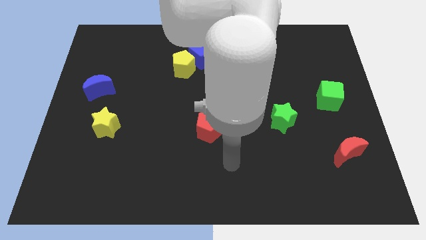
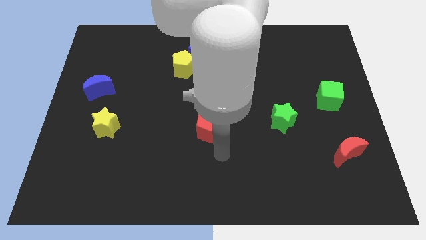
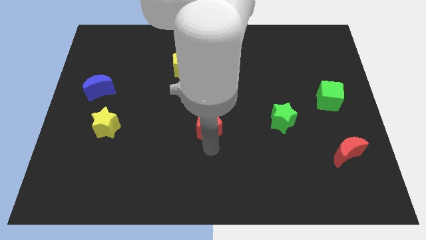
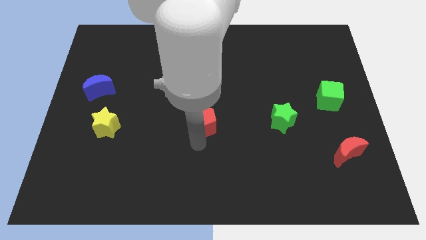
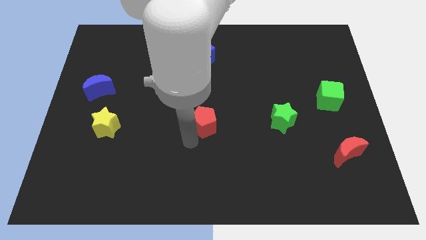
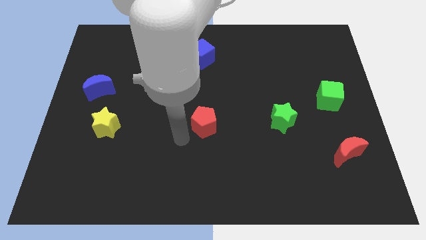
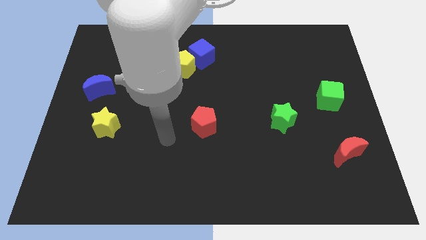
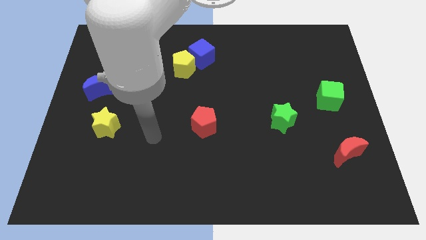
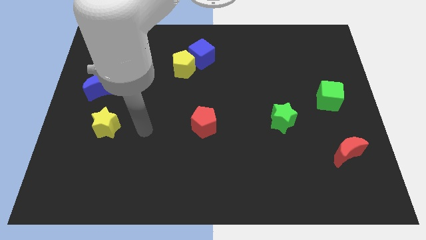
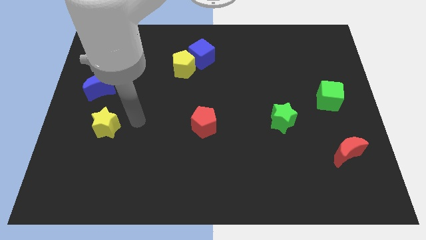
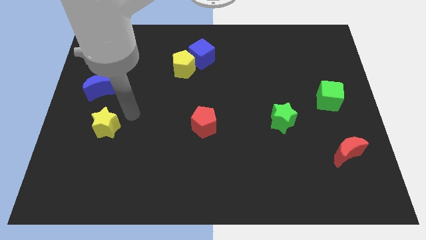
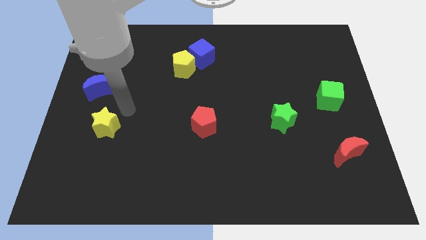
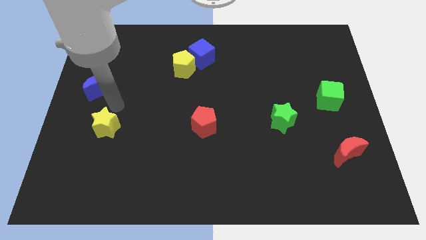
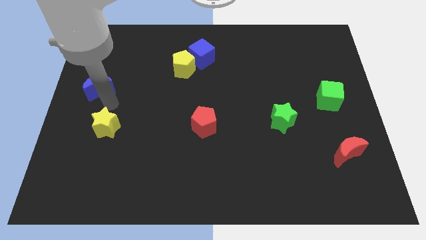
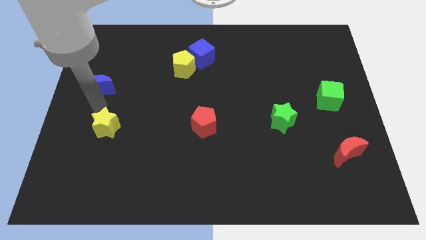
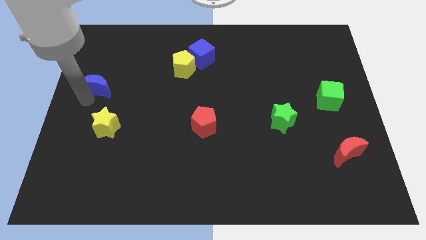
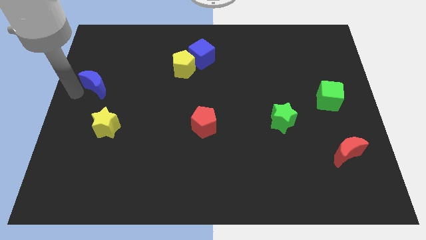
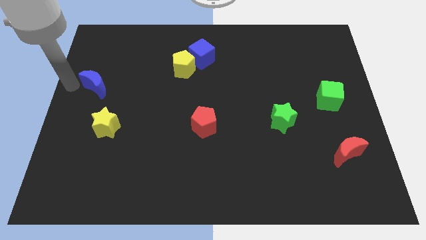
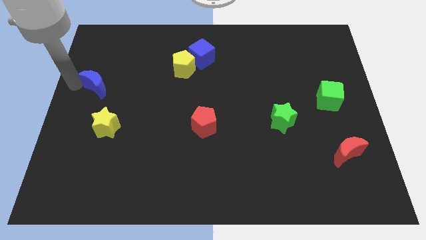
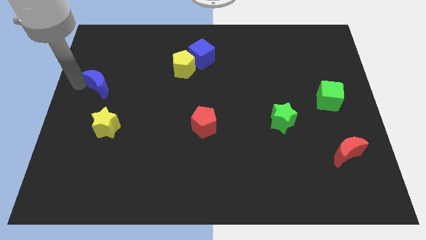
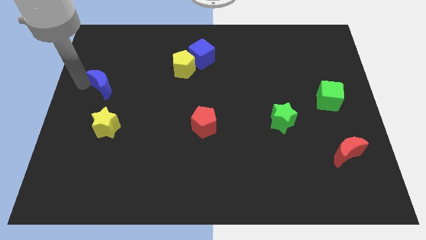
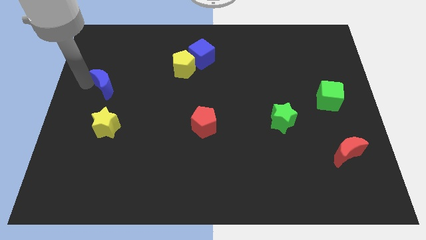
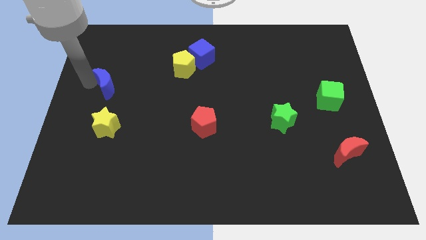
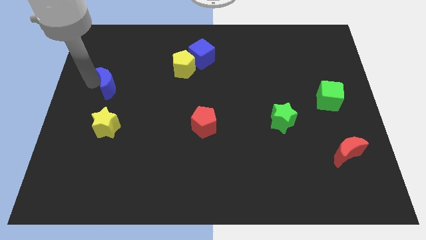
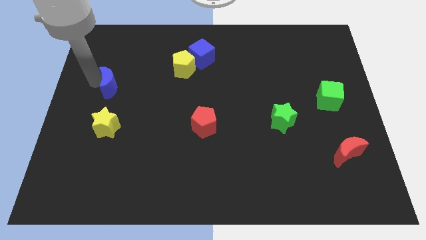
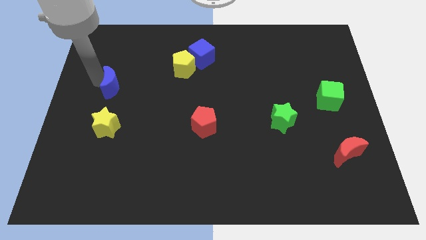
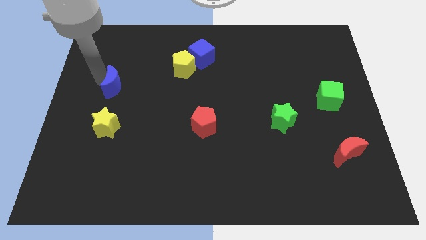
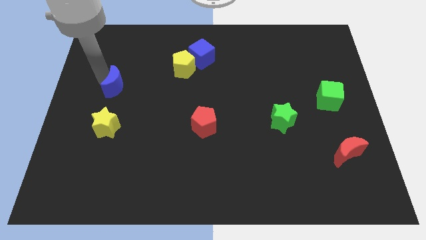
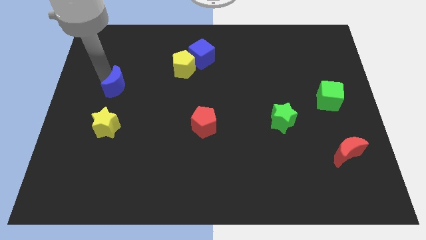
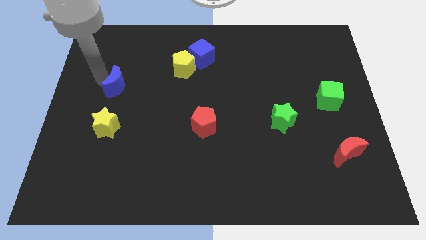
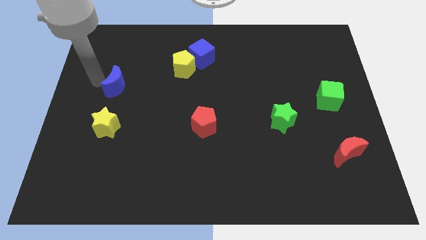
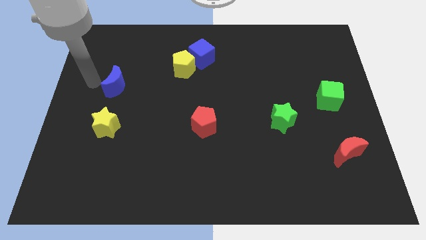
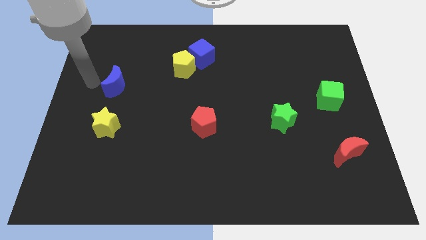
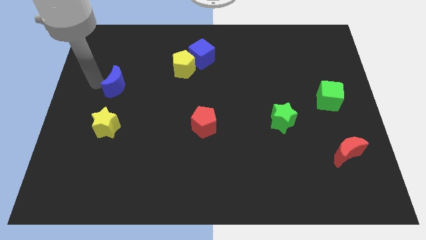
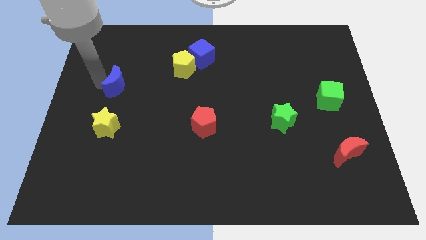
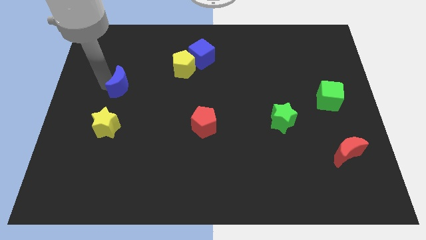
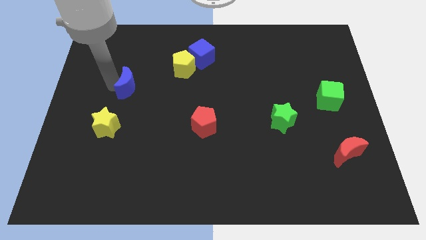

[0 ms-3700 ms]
slightly slide the blue moon to the right

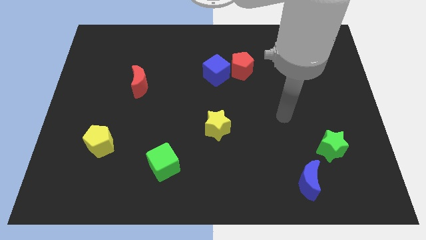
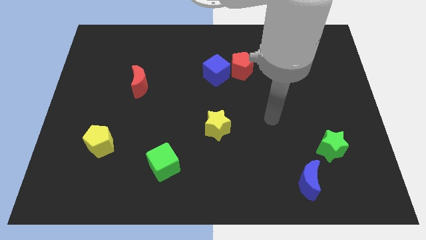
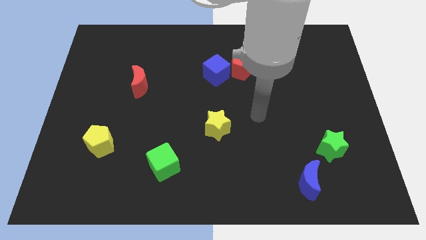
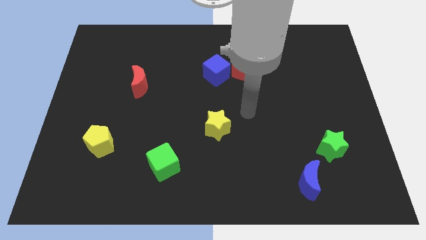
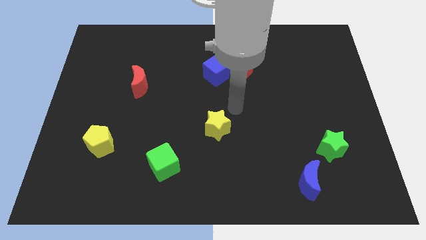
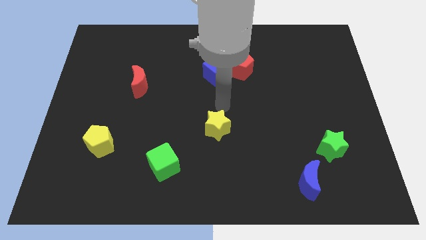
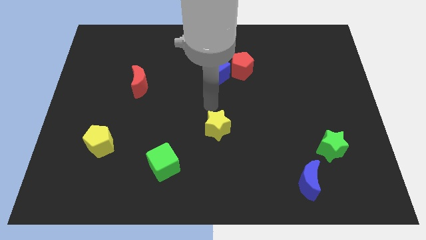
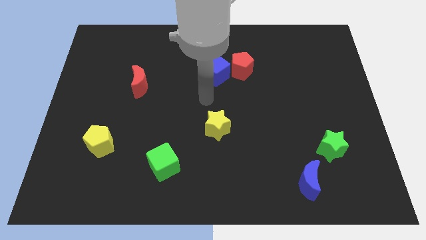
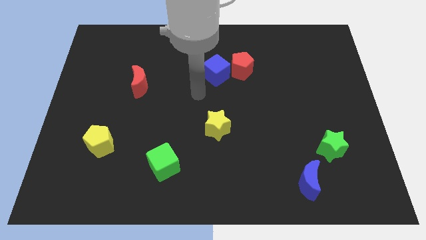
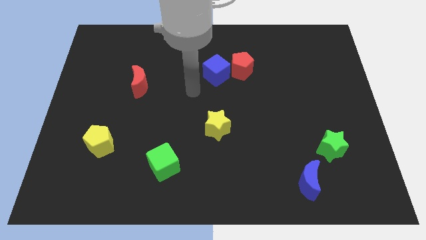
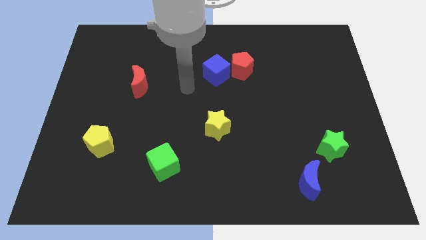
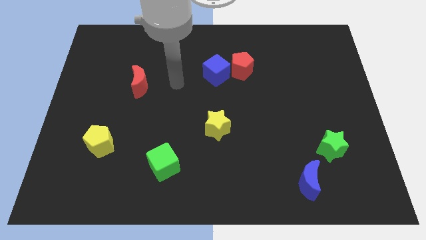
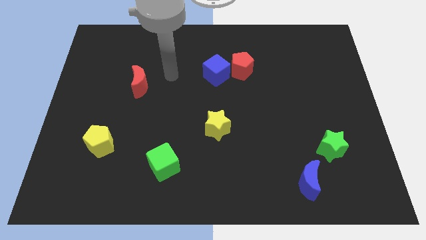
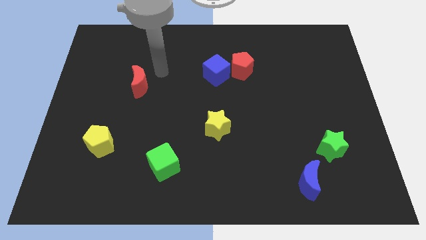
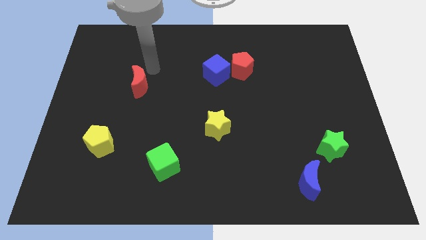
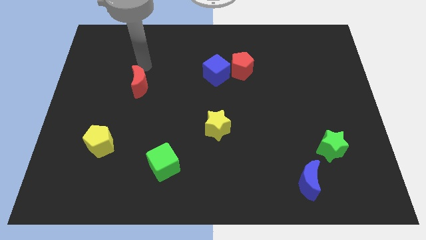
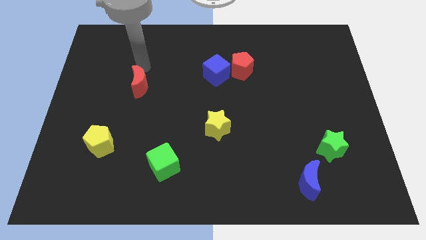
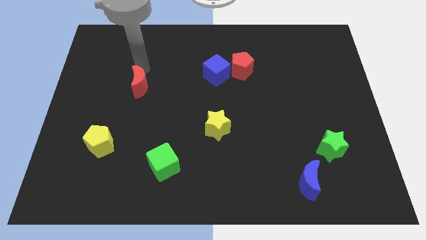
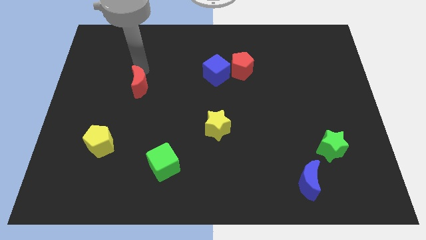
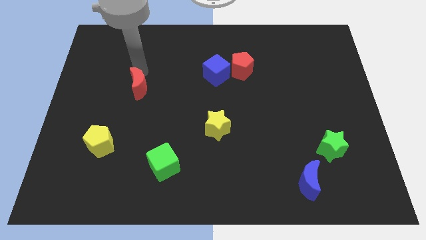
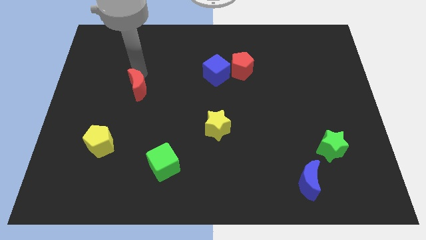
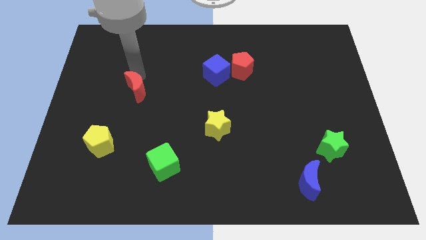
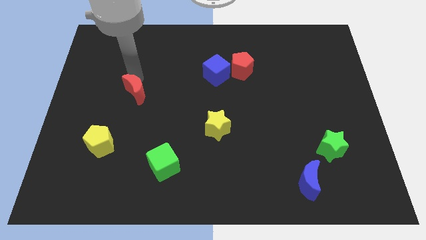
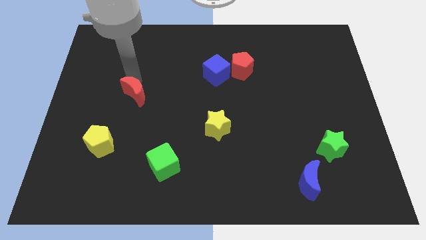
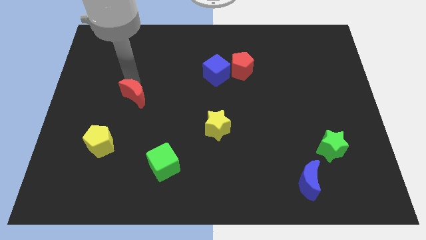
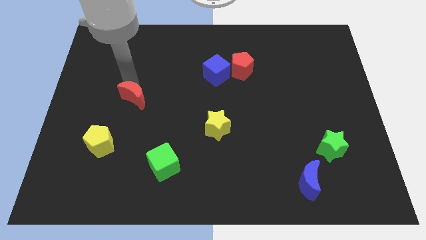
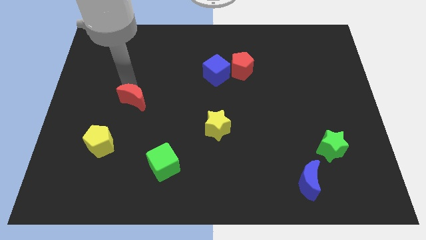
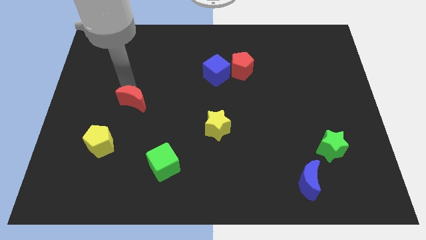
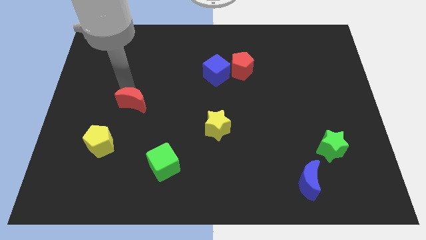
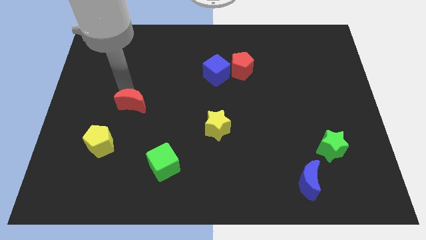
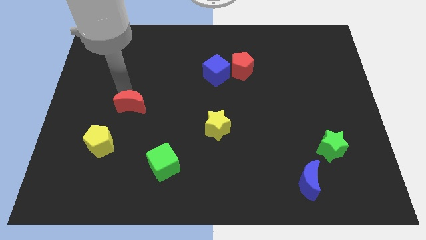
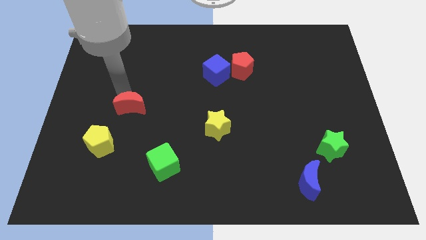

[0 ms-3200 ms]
slightly push the red moon downwards

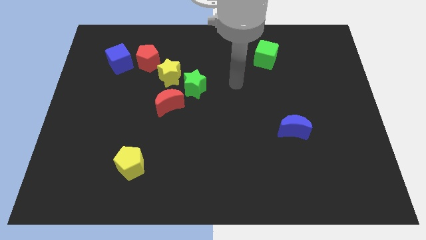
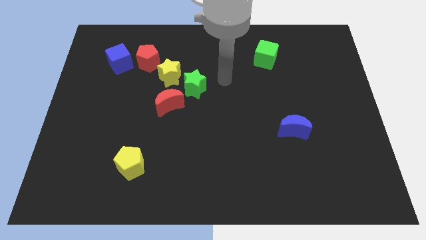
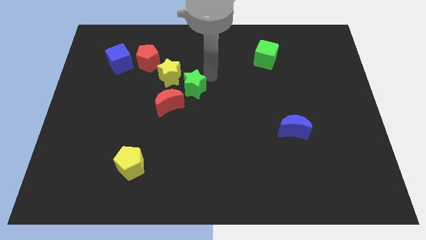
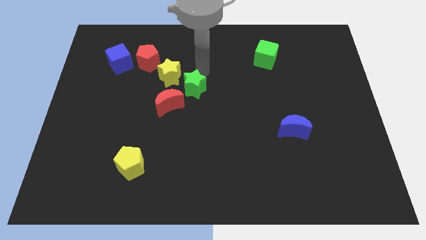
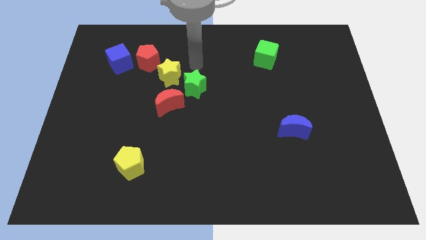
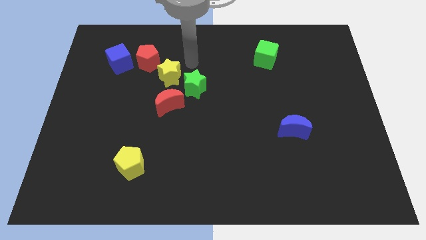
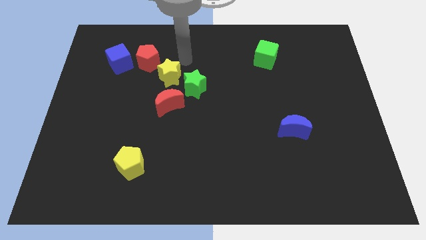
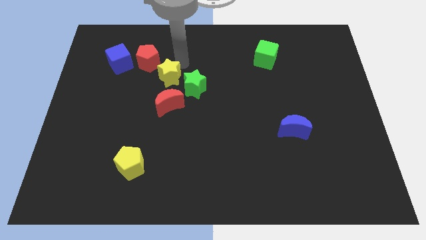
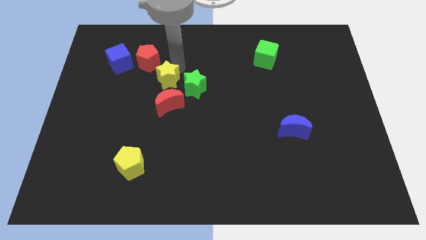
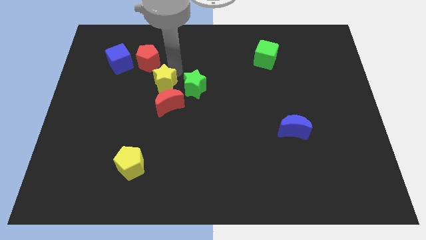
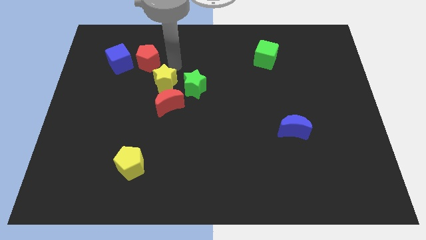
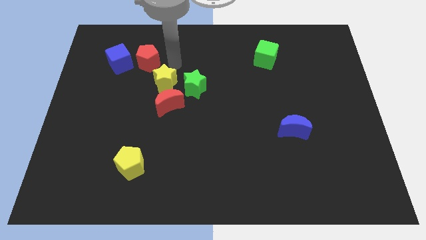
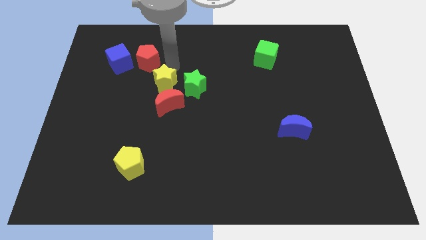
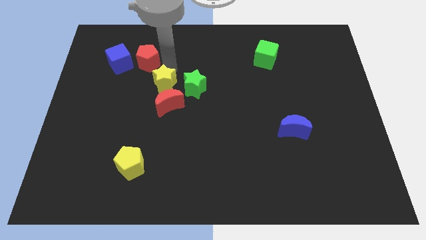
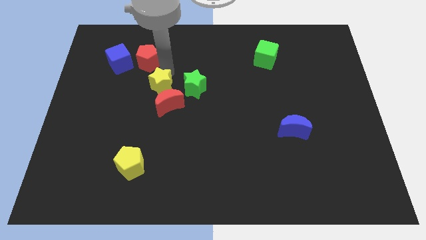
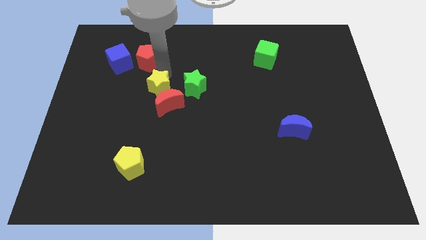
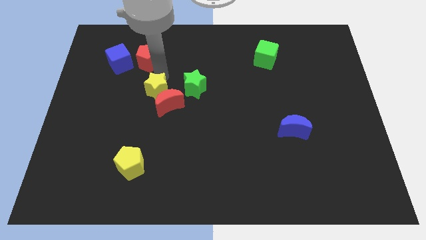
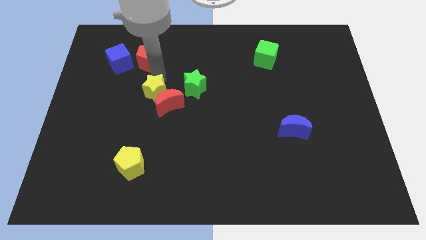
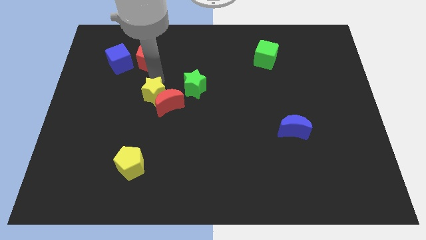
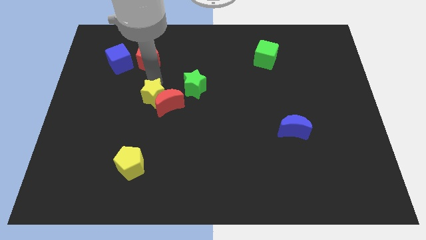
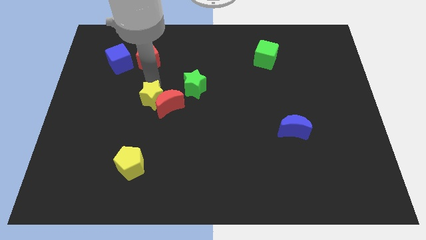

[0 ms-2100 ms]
slightly move the yellow star down
